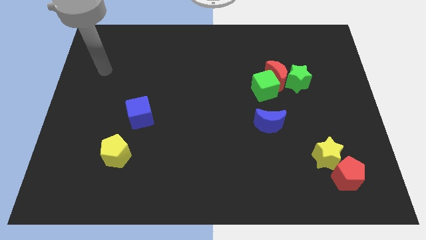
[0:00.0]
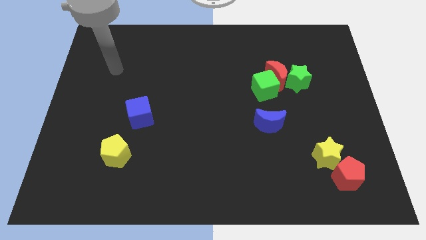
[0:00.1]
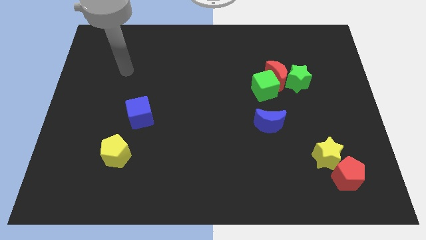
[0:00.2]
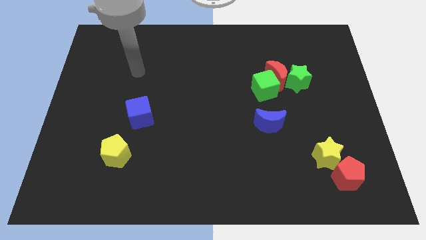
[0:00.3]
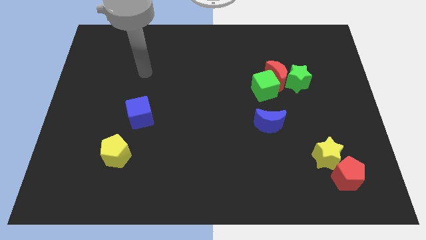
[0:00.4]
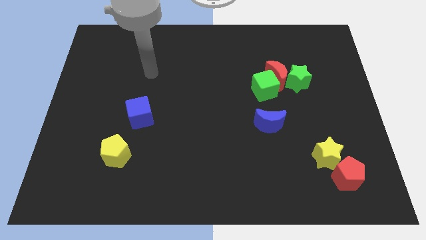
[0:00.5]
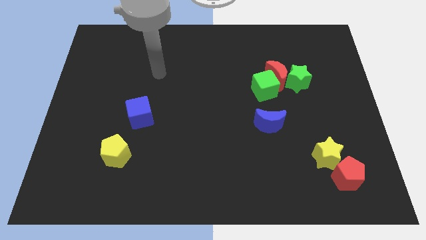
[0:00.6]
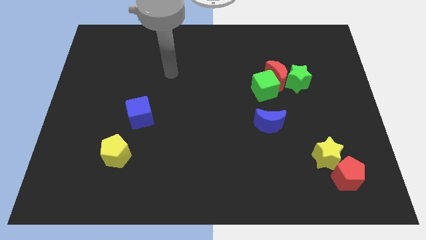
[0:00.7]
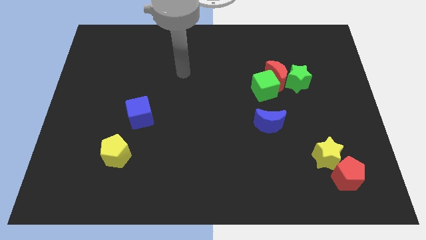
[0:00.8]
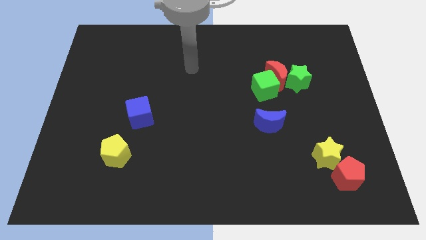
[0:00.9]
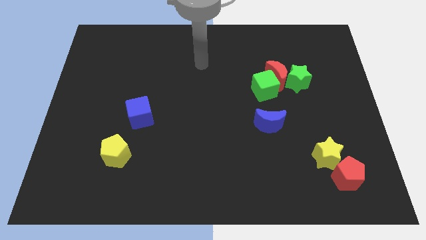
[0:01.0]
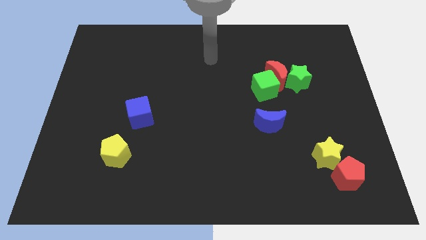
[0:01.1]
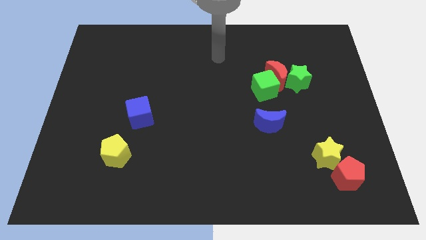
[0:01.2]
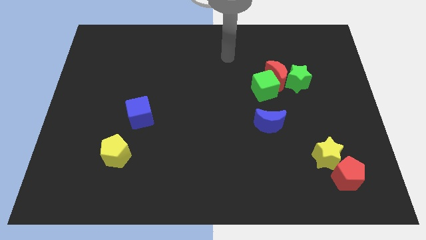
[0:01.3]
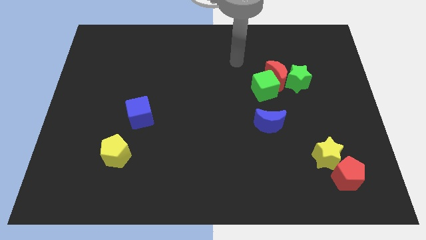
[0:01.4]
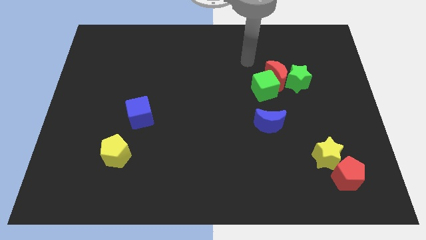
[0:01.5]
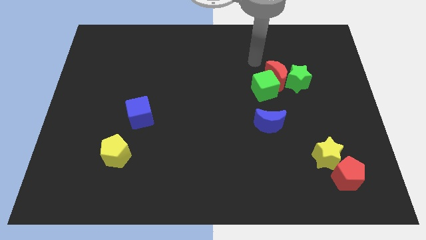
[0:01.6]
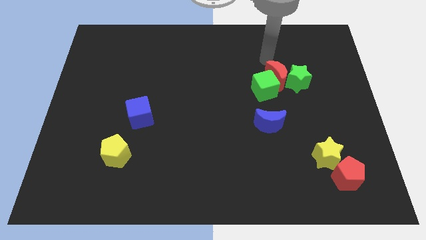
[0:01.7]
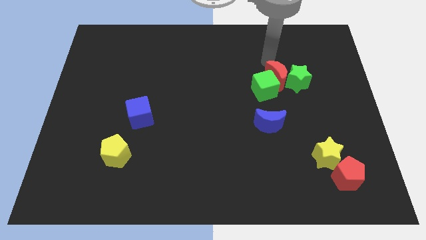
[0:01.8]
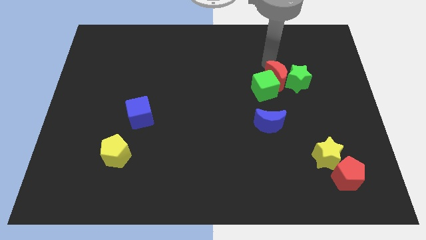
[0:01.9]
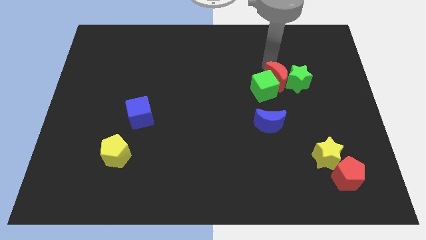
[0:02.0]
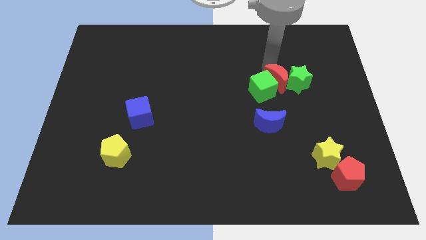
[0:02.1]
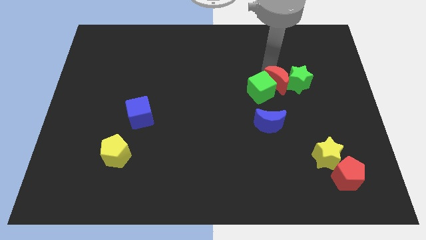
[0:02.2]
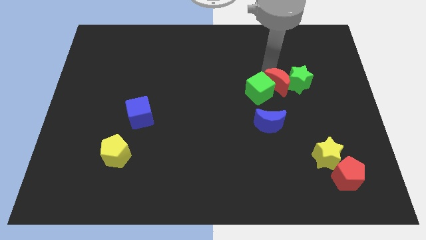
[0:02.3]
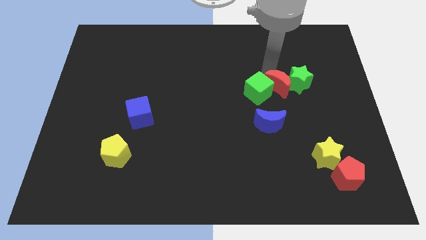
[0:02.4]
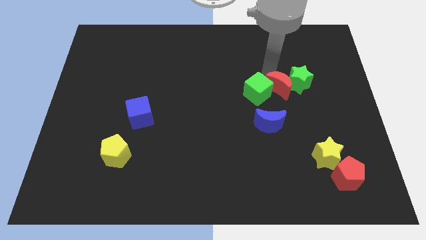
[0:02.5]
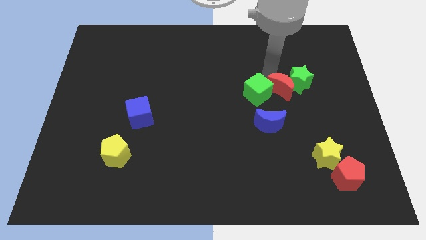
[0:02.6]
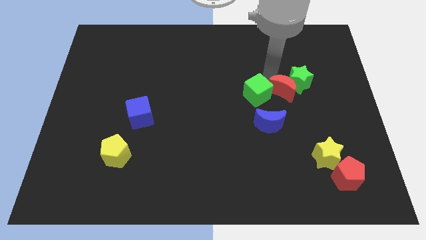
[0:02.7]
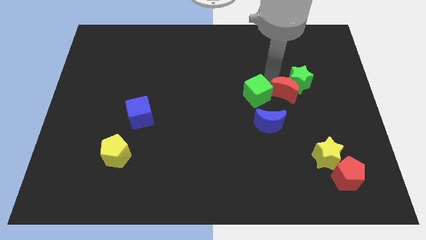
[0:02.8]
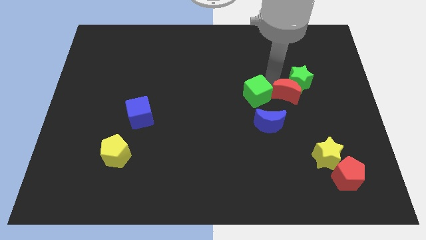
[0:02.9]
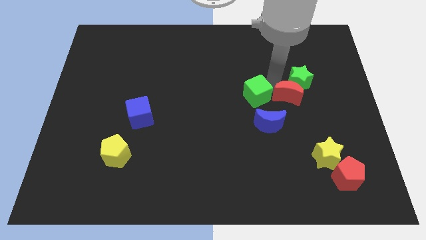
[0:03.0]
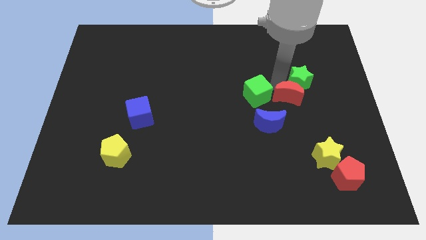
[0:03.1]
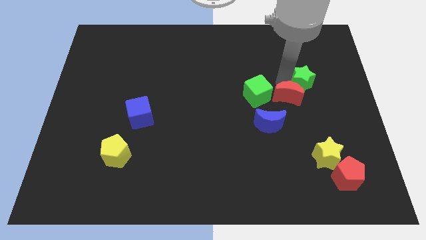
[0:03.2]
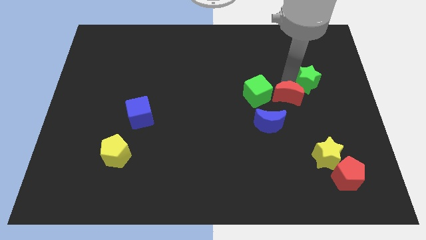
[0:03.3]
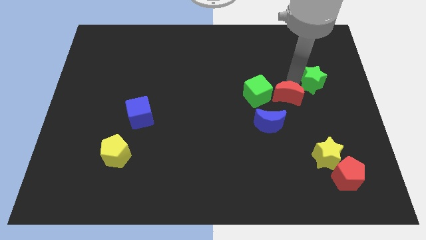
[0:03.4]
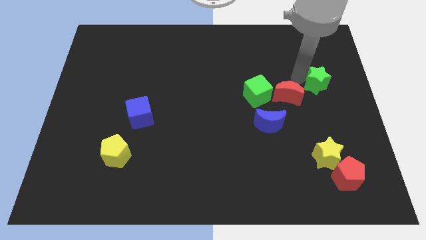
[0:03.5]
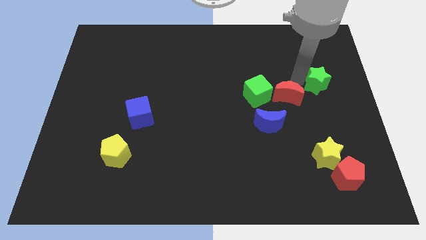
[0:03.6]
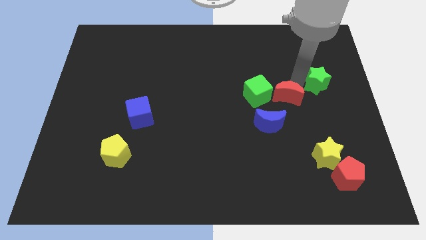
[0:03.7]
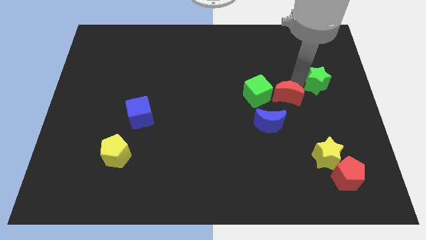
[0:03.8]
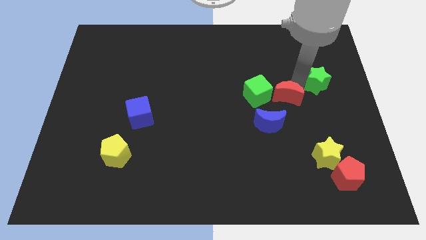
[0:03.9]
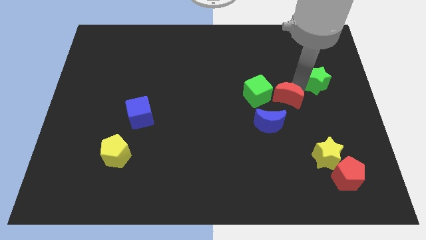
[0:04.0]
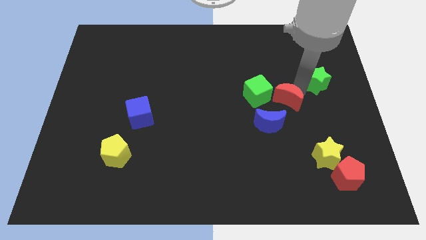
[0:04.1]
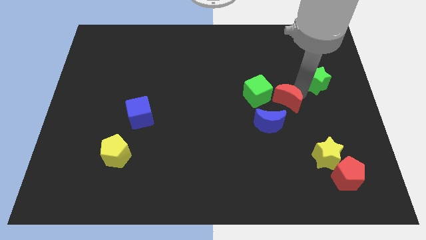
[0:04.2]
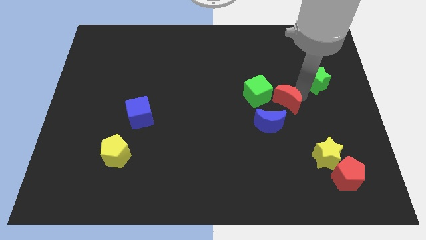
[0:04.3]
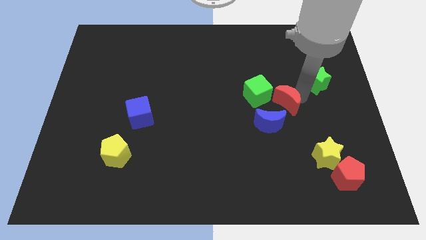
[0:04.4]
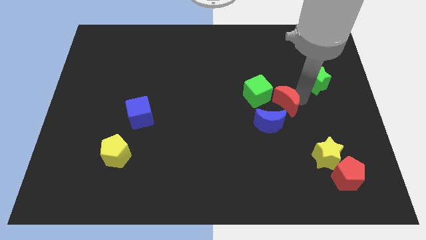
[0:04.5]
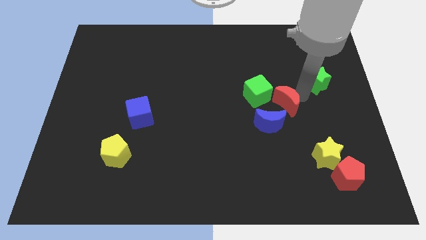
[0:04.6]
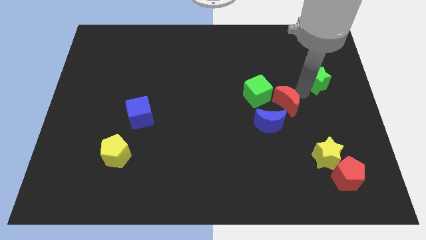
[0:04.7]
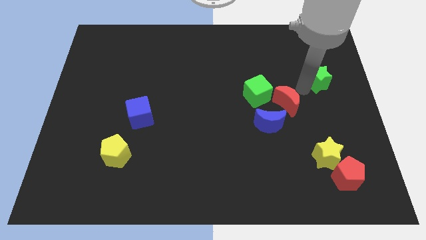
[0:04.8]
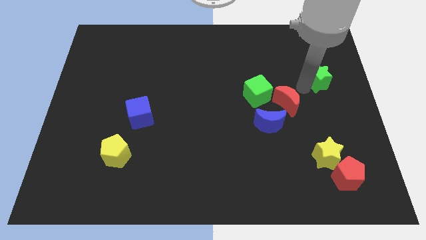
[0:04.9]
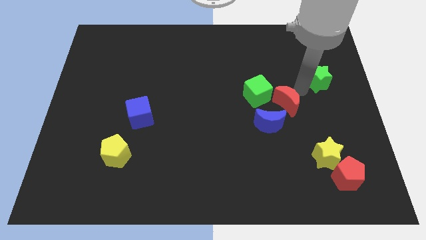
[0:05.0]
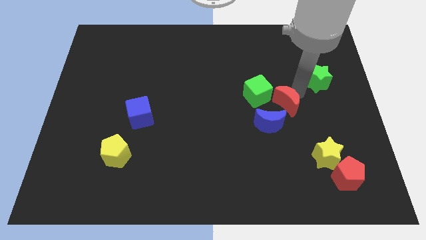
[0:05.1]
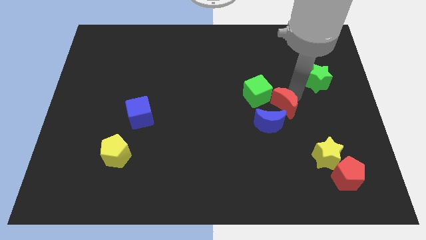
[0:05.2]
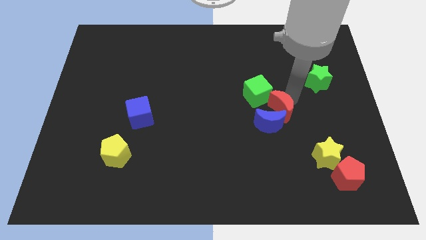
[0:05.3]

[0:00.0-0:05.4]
push the red moon close to the blue moon

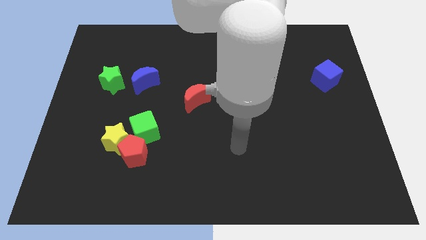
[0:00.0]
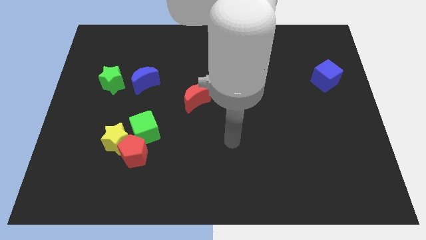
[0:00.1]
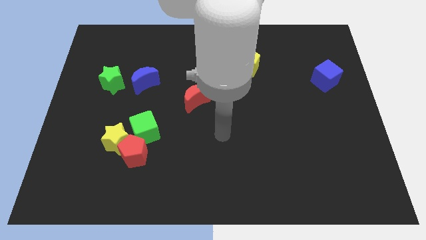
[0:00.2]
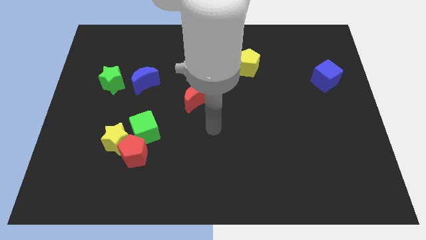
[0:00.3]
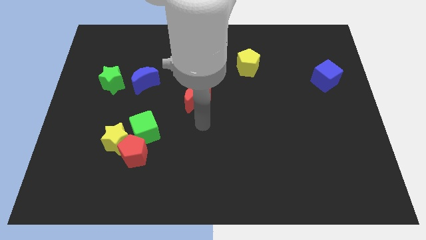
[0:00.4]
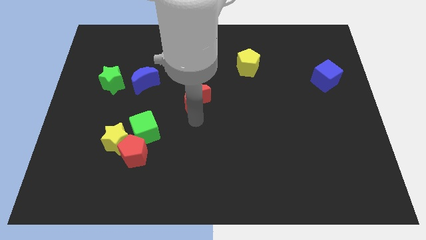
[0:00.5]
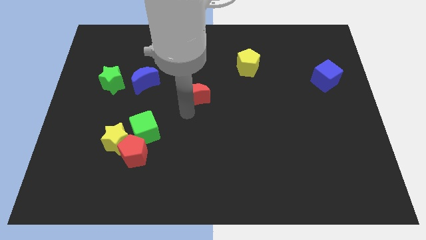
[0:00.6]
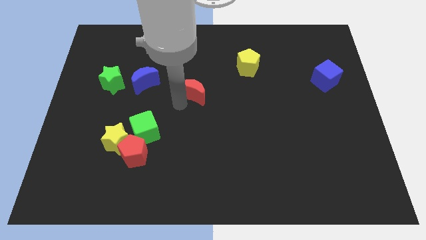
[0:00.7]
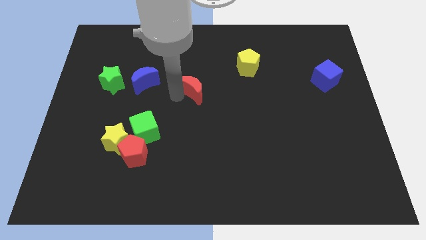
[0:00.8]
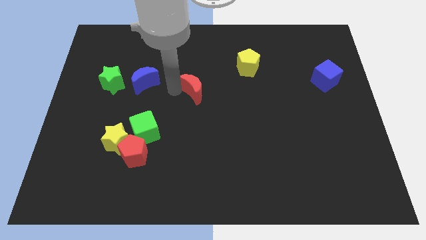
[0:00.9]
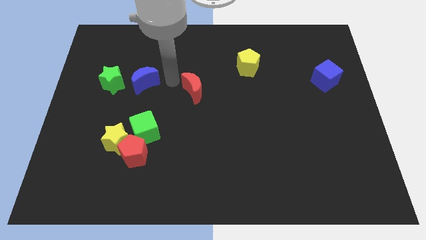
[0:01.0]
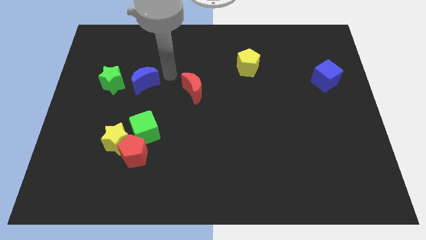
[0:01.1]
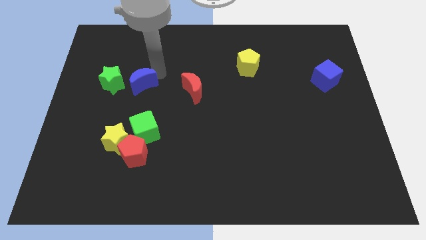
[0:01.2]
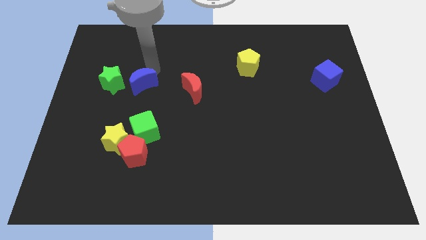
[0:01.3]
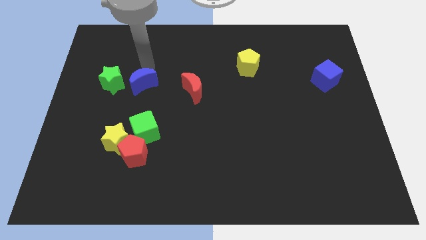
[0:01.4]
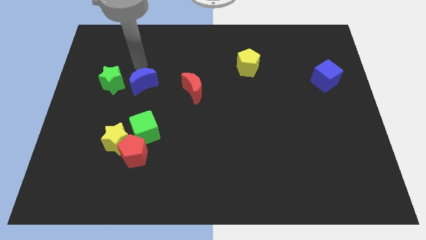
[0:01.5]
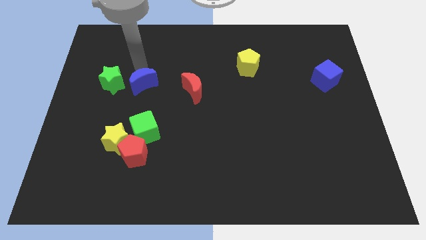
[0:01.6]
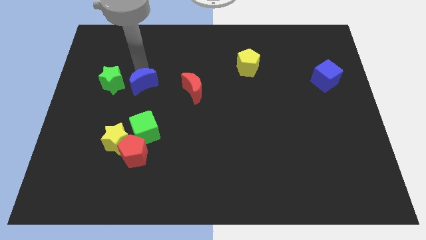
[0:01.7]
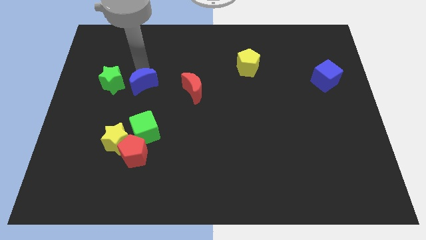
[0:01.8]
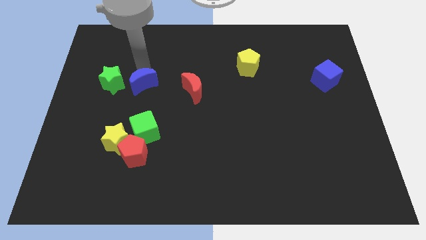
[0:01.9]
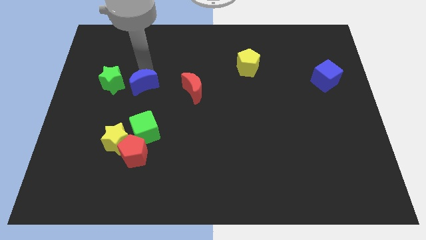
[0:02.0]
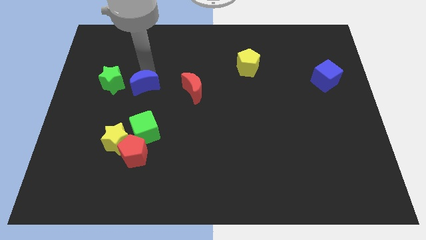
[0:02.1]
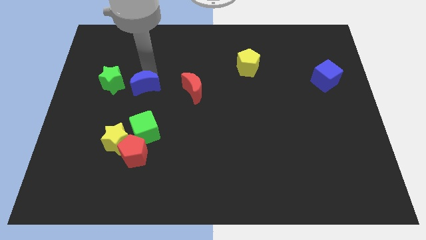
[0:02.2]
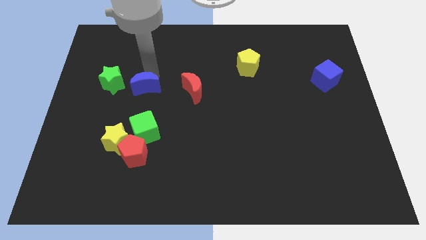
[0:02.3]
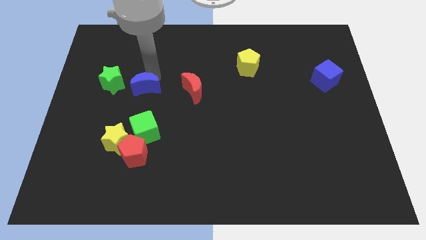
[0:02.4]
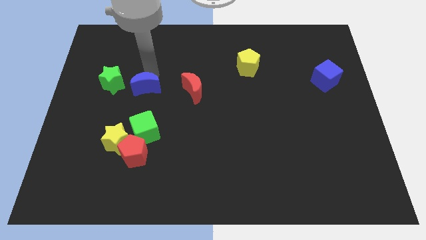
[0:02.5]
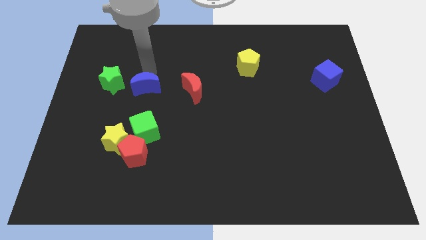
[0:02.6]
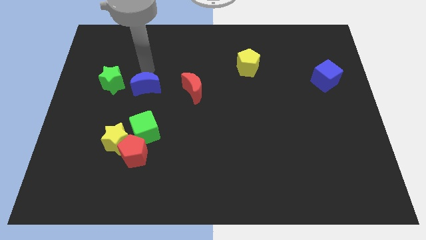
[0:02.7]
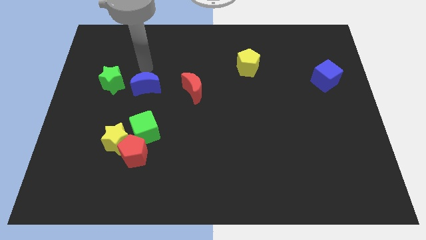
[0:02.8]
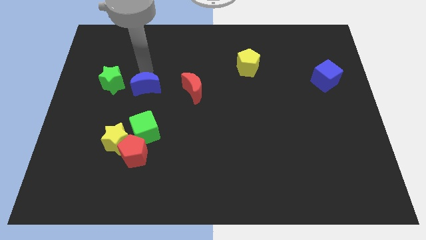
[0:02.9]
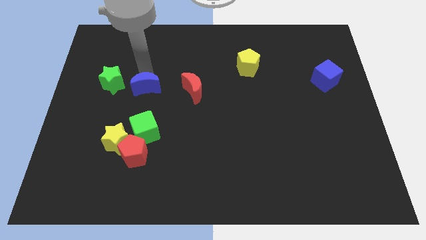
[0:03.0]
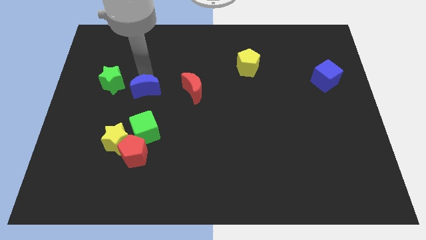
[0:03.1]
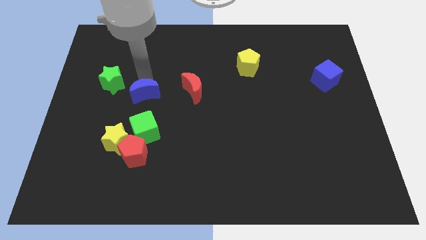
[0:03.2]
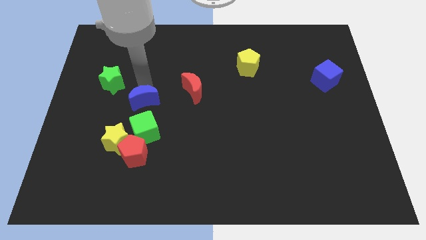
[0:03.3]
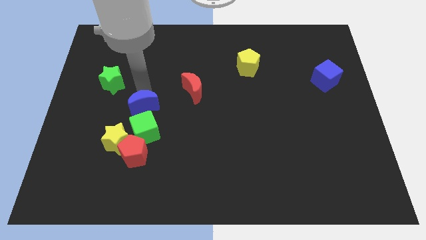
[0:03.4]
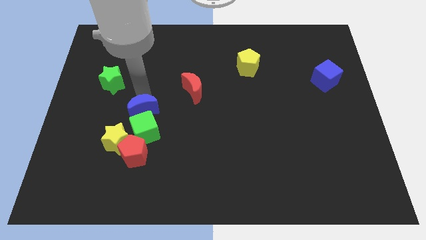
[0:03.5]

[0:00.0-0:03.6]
slide the blue moon close to the green cube
